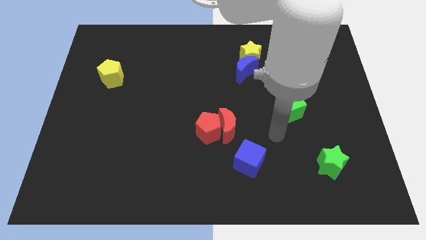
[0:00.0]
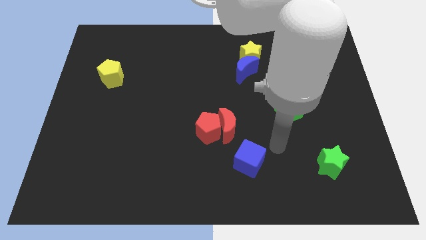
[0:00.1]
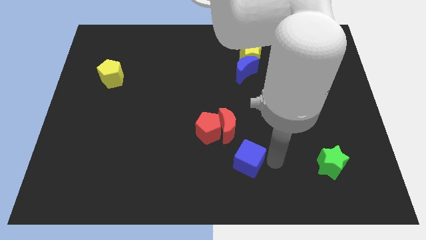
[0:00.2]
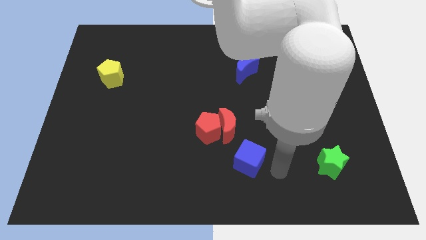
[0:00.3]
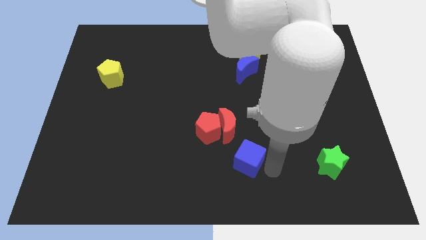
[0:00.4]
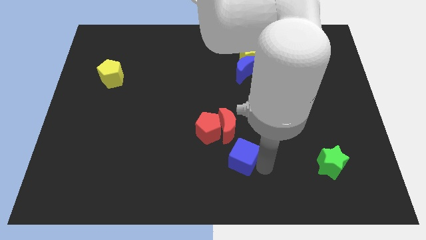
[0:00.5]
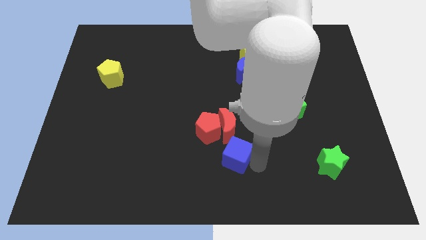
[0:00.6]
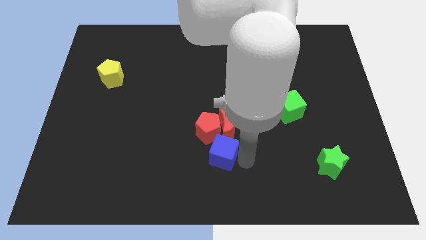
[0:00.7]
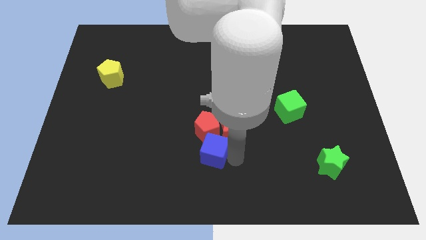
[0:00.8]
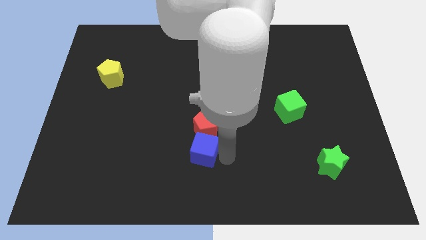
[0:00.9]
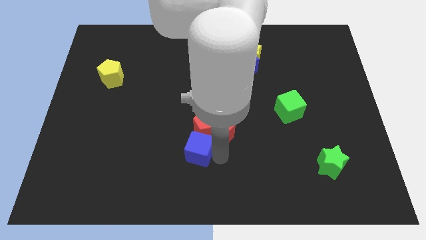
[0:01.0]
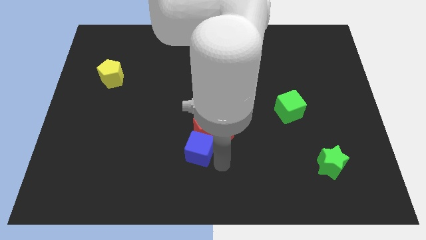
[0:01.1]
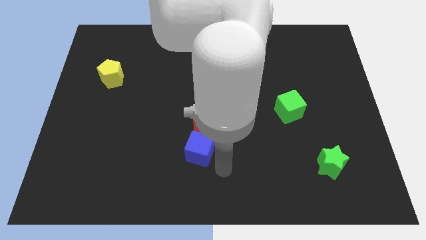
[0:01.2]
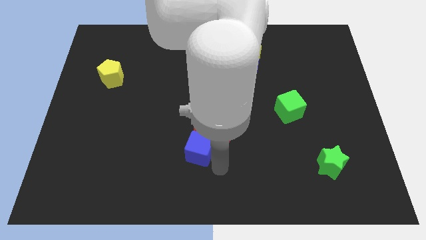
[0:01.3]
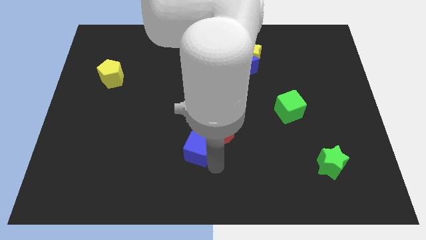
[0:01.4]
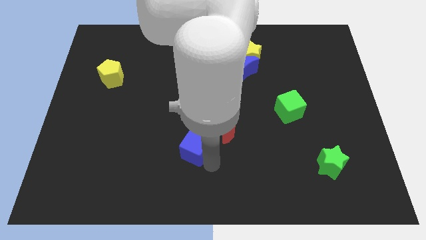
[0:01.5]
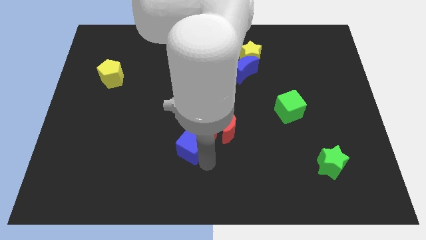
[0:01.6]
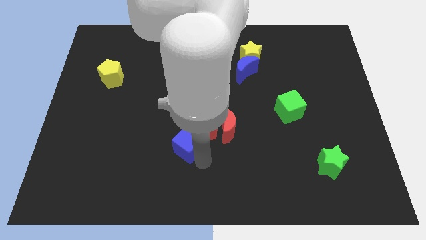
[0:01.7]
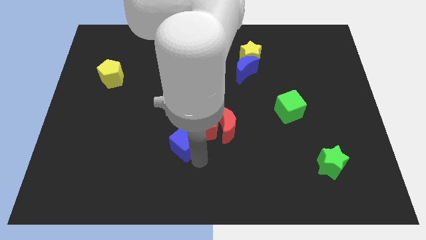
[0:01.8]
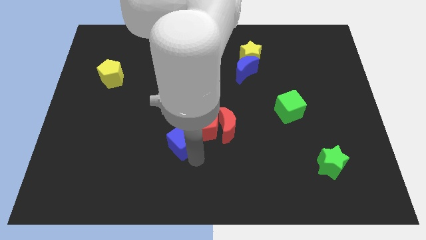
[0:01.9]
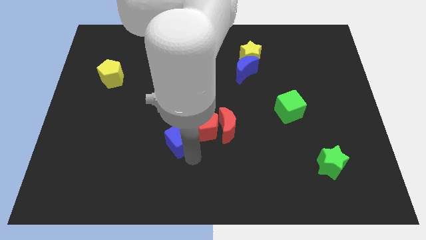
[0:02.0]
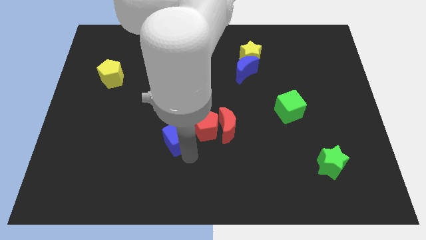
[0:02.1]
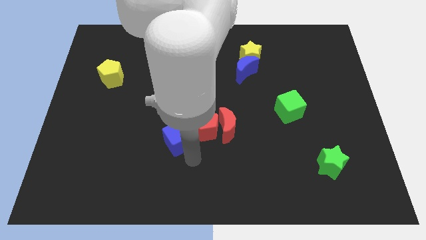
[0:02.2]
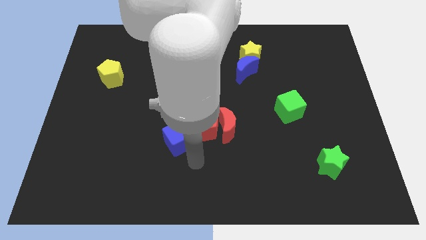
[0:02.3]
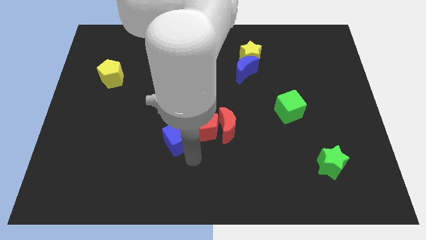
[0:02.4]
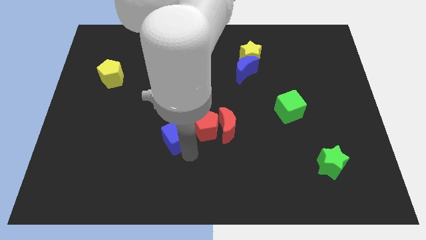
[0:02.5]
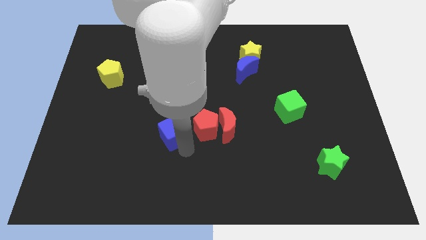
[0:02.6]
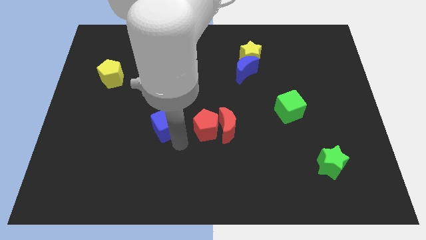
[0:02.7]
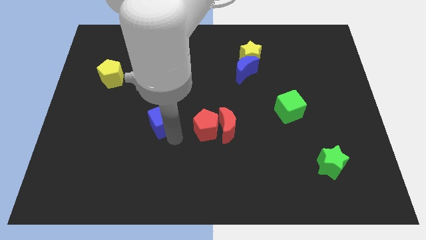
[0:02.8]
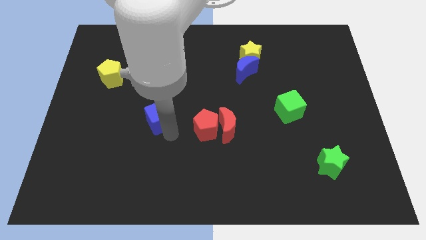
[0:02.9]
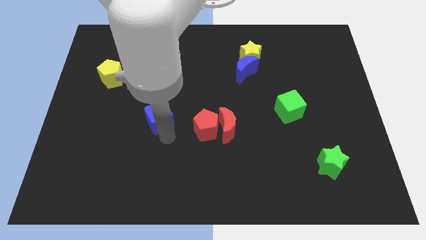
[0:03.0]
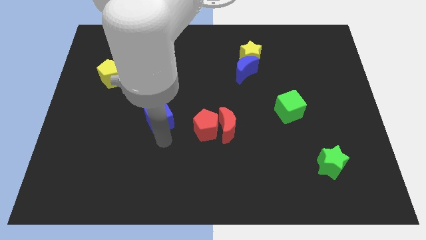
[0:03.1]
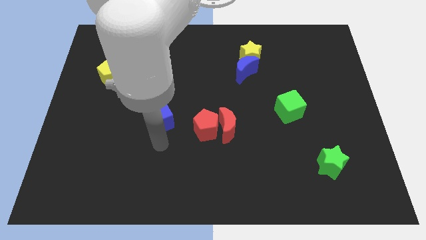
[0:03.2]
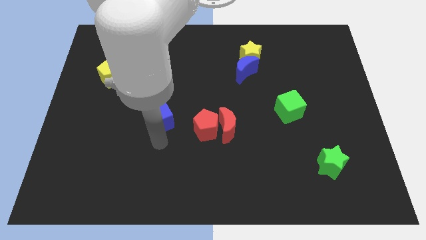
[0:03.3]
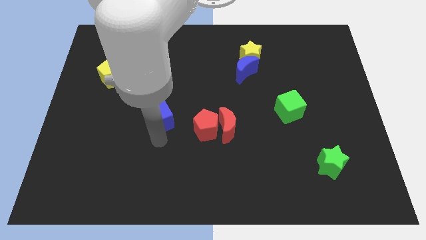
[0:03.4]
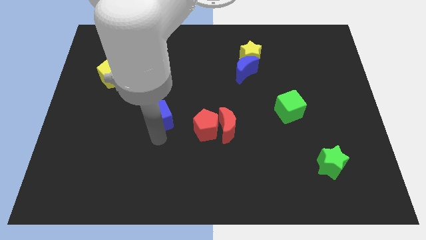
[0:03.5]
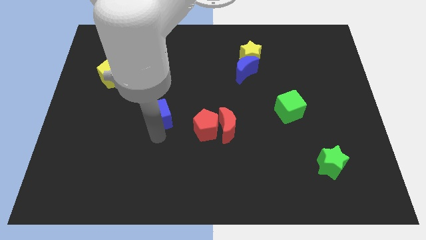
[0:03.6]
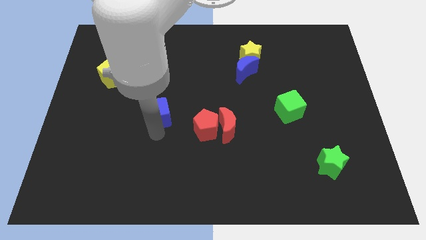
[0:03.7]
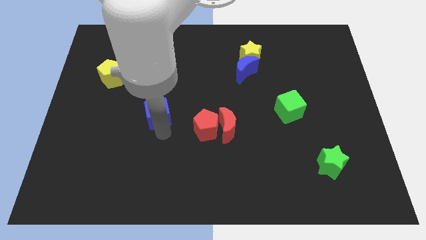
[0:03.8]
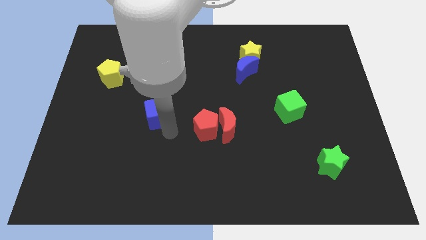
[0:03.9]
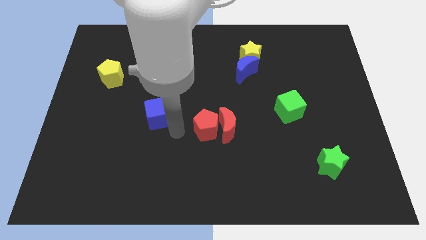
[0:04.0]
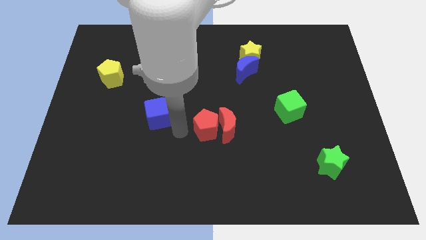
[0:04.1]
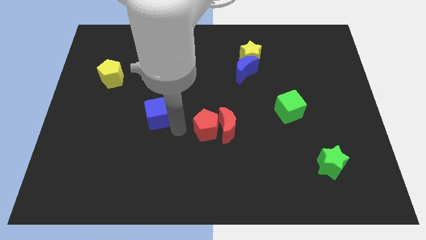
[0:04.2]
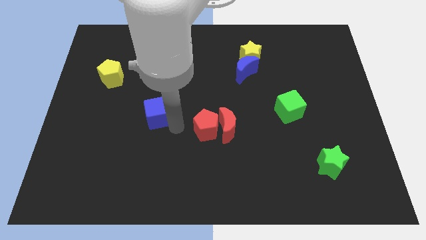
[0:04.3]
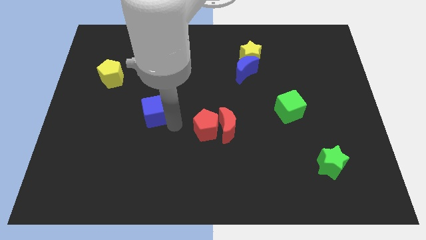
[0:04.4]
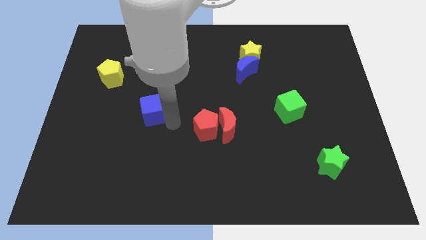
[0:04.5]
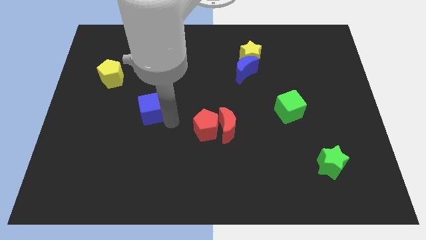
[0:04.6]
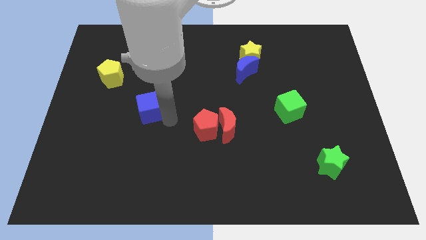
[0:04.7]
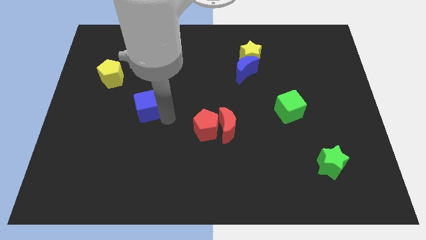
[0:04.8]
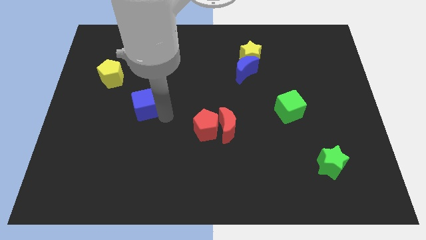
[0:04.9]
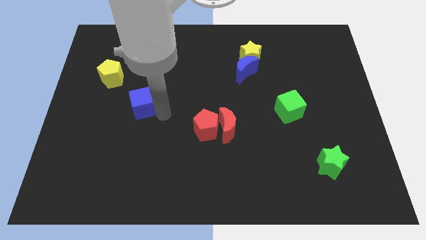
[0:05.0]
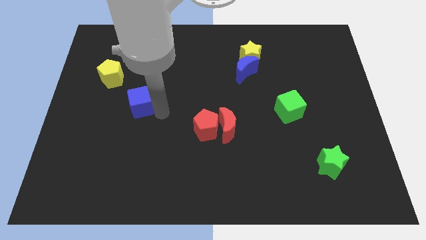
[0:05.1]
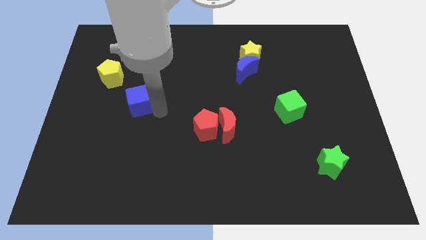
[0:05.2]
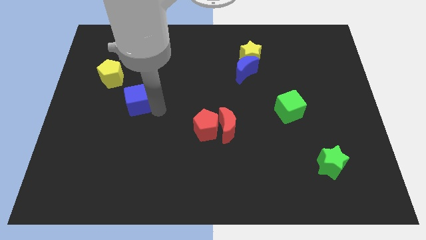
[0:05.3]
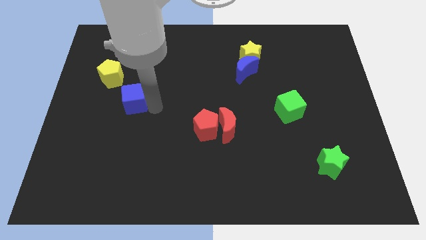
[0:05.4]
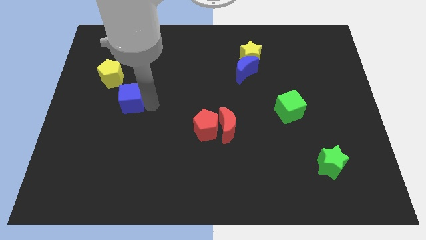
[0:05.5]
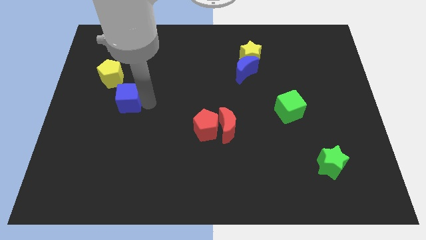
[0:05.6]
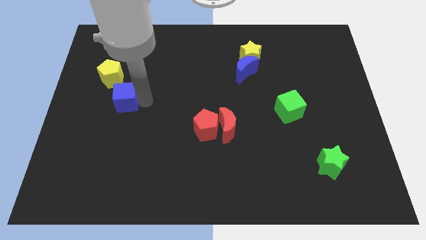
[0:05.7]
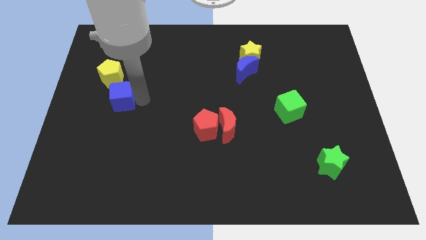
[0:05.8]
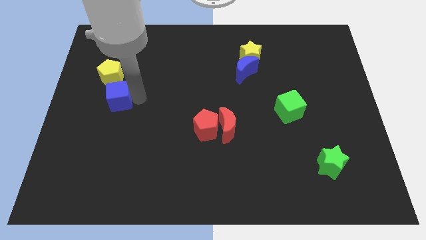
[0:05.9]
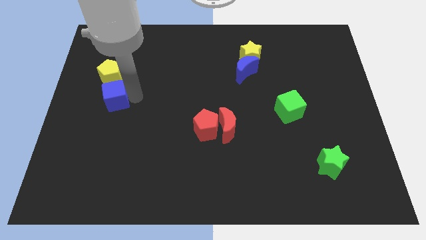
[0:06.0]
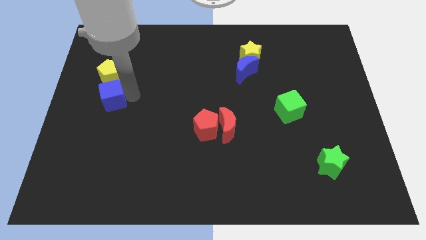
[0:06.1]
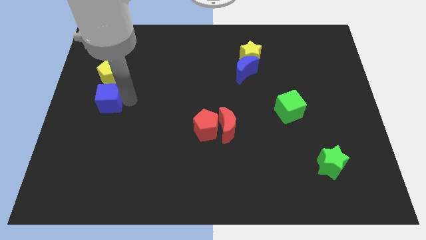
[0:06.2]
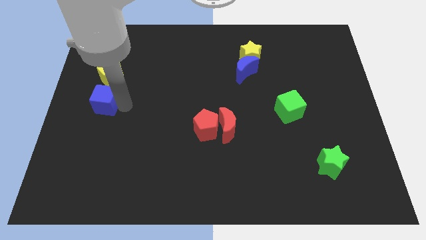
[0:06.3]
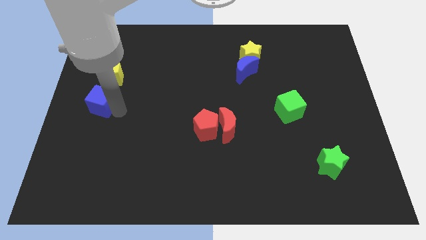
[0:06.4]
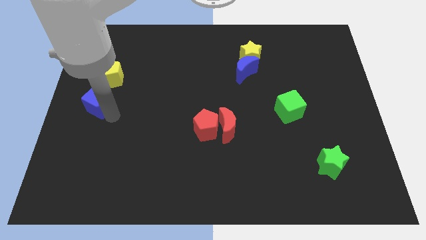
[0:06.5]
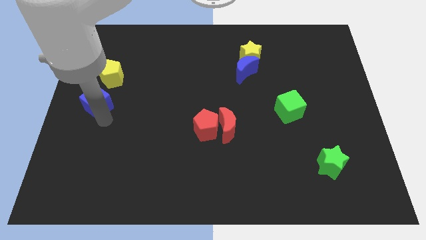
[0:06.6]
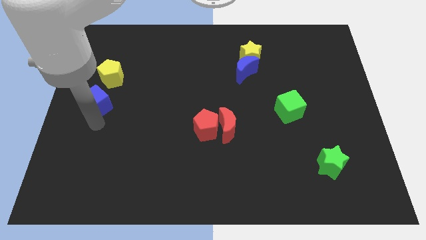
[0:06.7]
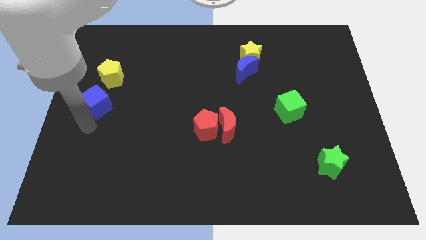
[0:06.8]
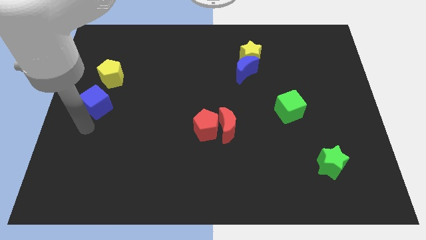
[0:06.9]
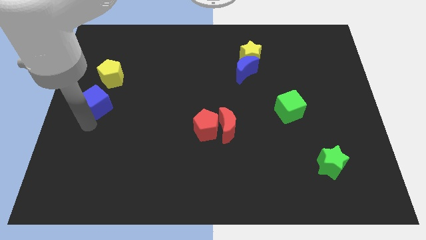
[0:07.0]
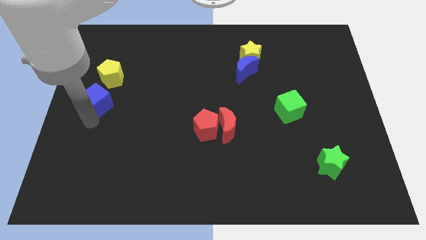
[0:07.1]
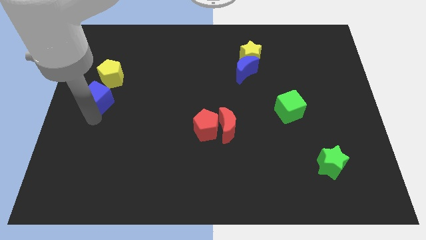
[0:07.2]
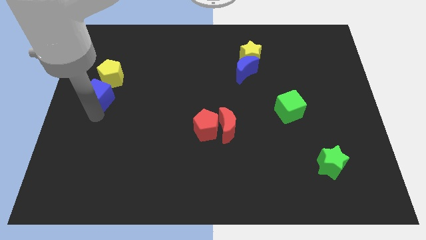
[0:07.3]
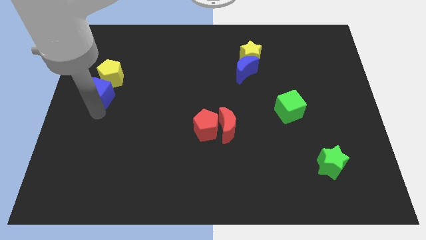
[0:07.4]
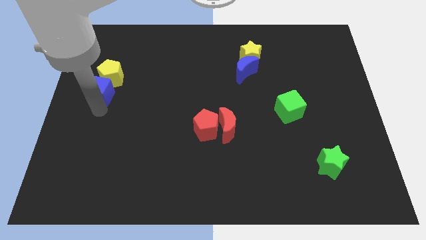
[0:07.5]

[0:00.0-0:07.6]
put the blue cube next to the yellow pentagon
